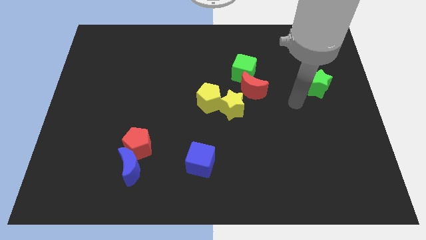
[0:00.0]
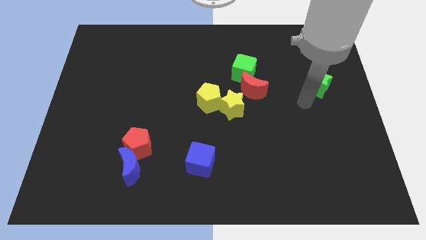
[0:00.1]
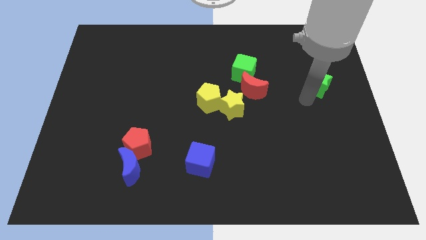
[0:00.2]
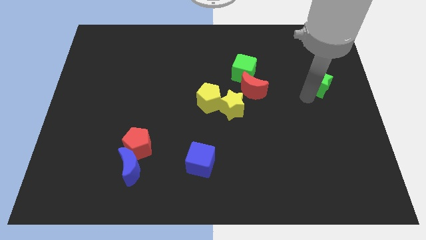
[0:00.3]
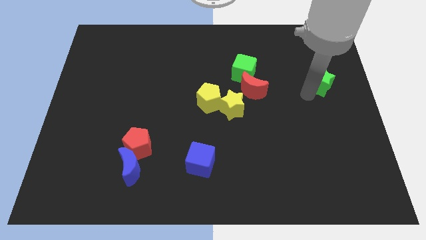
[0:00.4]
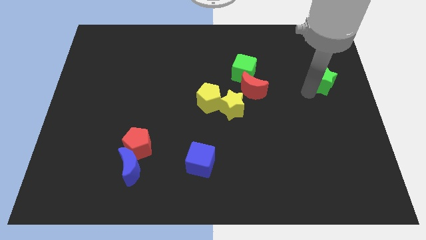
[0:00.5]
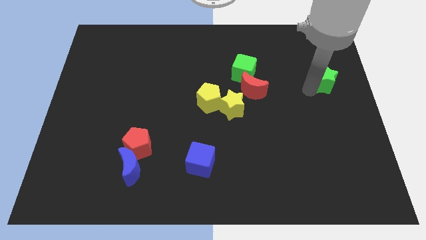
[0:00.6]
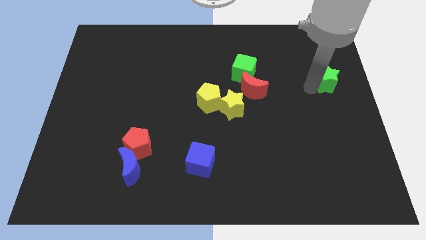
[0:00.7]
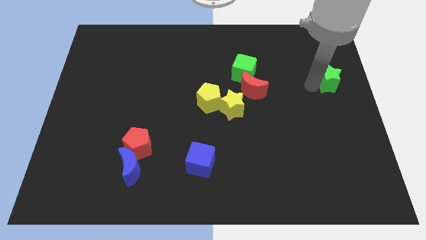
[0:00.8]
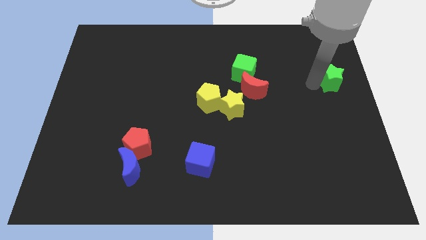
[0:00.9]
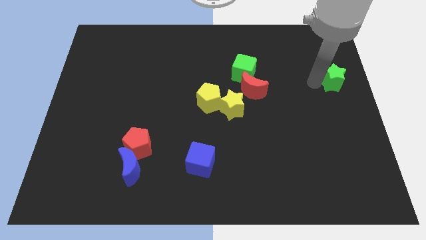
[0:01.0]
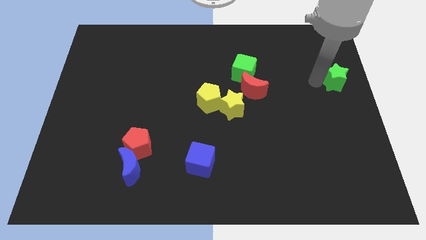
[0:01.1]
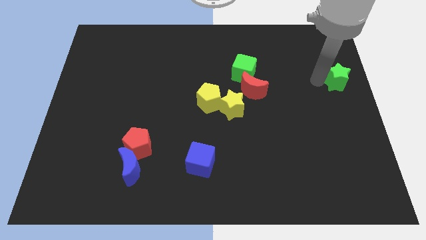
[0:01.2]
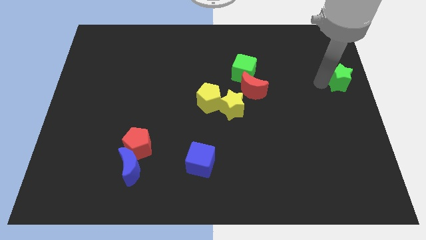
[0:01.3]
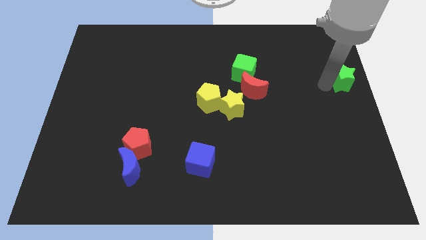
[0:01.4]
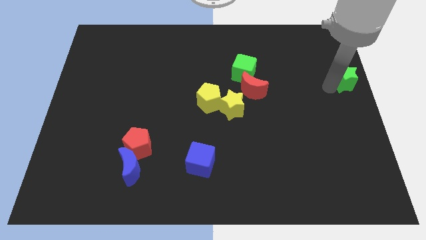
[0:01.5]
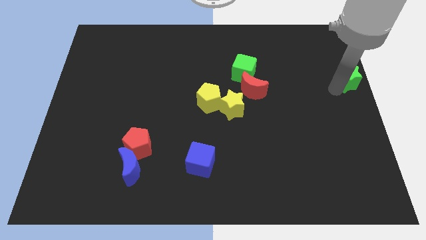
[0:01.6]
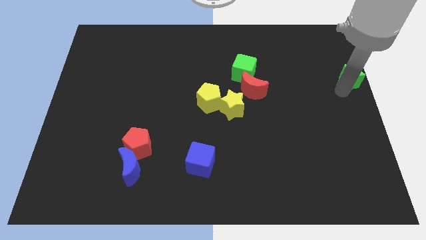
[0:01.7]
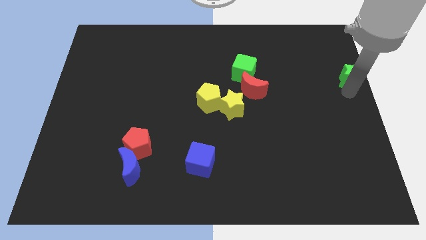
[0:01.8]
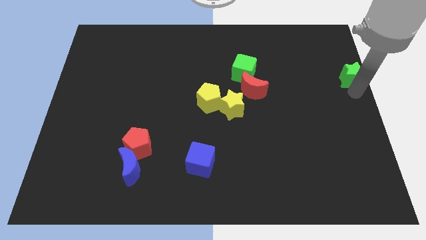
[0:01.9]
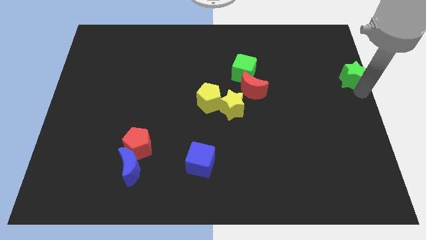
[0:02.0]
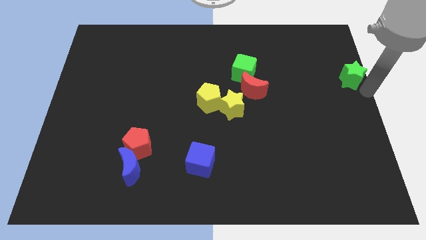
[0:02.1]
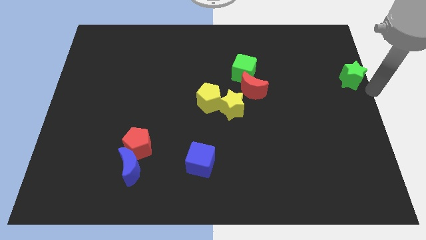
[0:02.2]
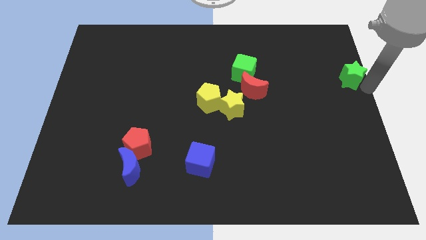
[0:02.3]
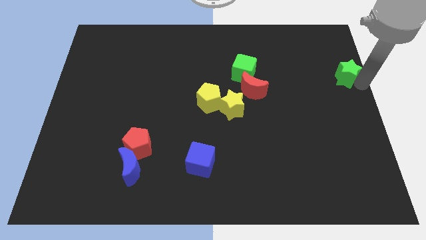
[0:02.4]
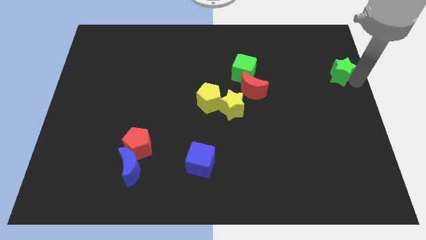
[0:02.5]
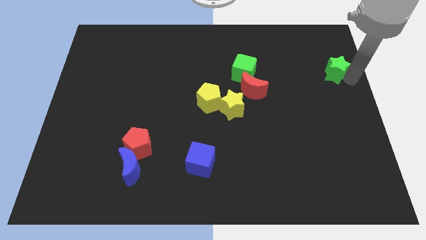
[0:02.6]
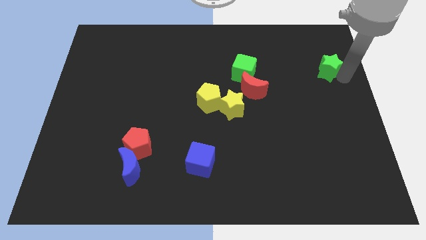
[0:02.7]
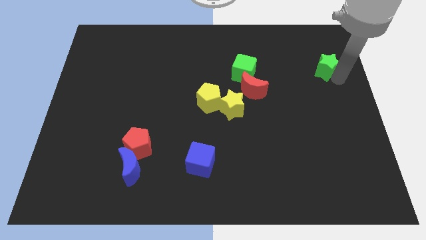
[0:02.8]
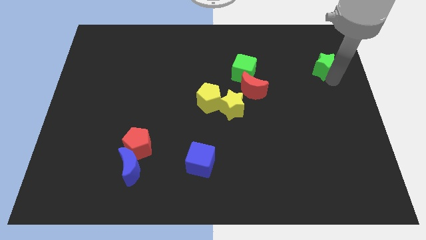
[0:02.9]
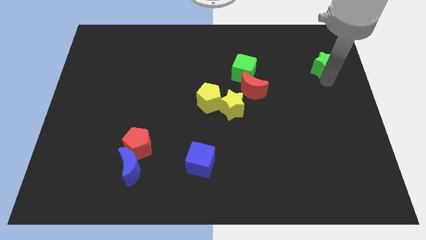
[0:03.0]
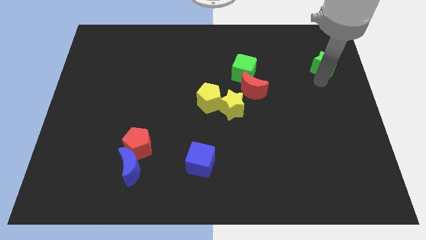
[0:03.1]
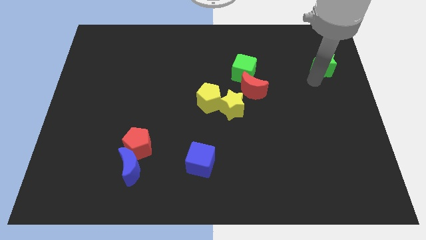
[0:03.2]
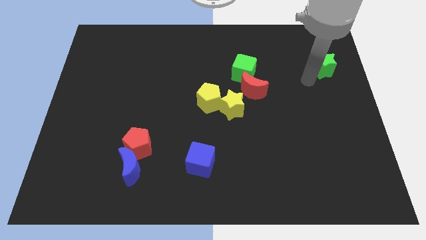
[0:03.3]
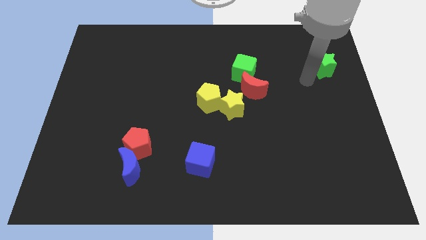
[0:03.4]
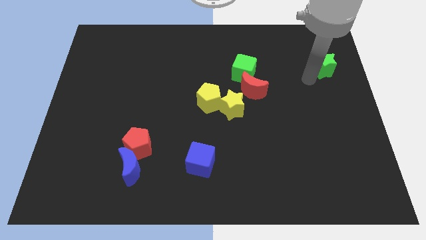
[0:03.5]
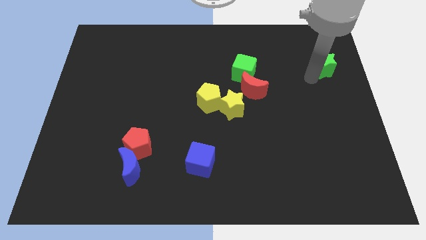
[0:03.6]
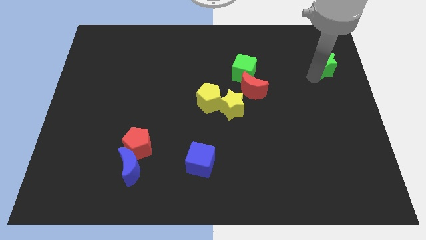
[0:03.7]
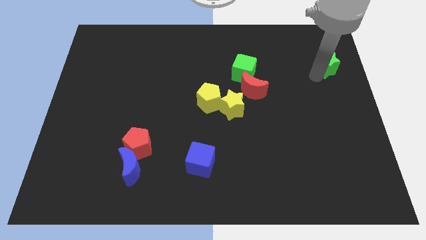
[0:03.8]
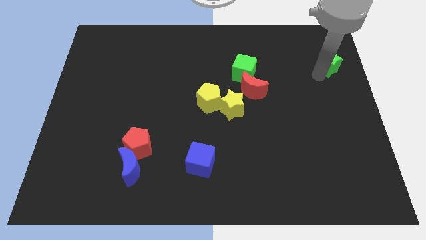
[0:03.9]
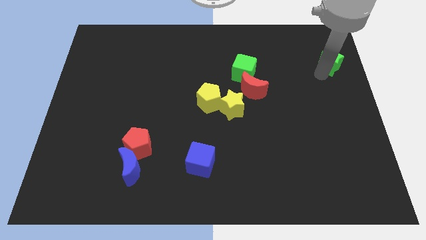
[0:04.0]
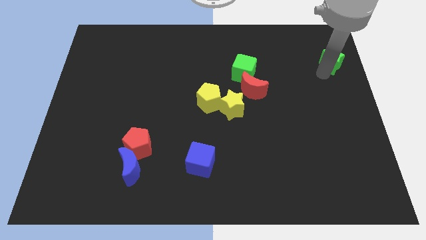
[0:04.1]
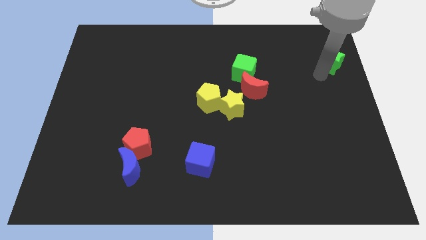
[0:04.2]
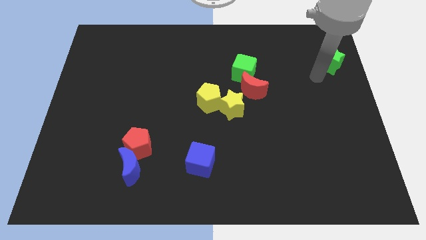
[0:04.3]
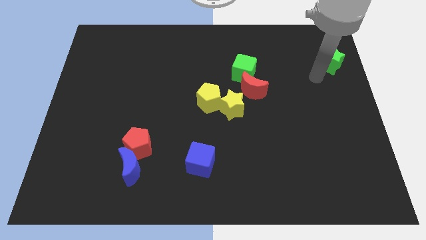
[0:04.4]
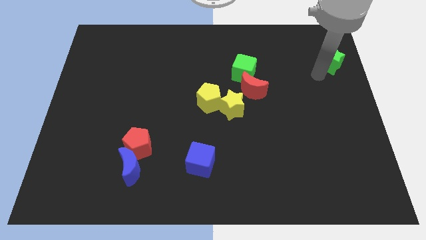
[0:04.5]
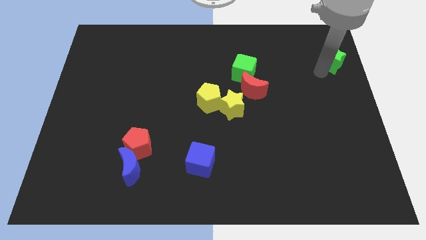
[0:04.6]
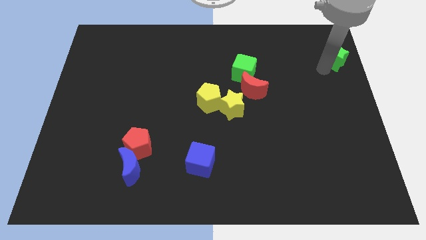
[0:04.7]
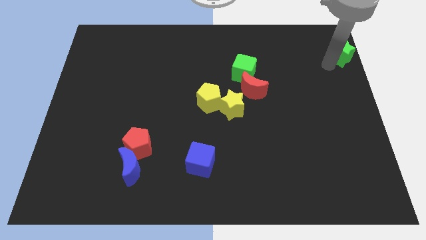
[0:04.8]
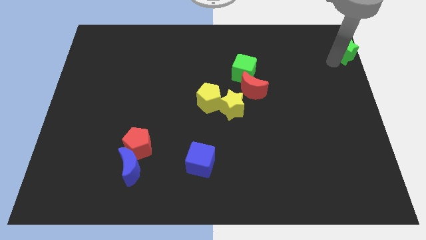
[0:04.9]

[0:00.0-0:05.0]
move the green star to the upper right corner

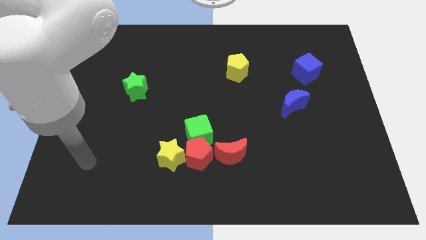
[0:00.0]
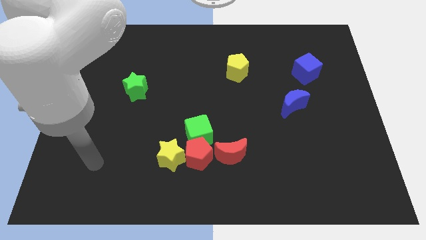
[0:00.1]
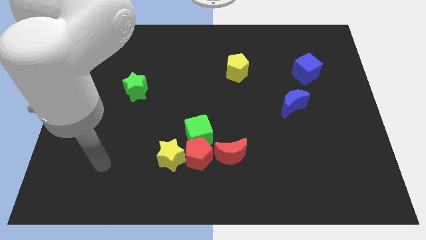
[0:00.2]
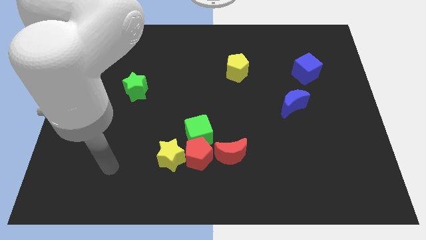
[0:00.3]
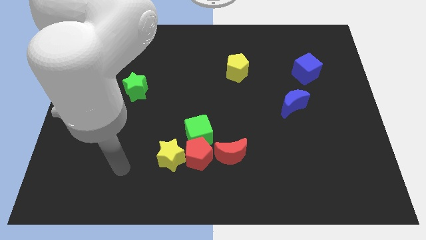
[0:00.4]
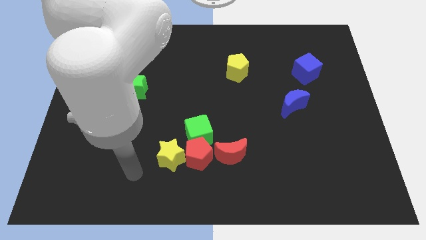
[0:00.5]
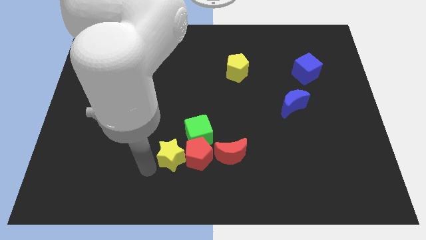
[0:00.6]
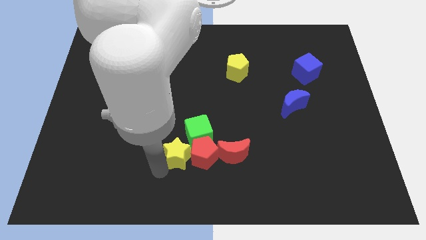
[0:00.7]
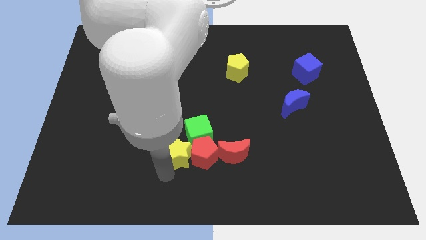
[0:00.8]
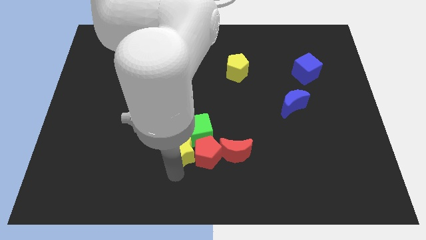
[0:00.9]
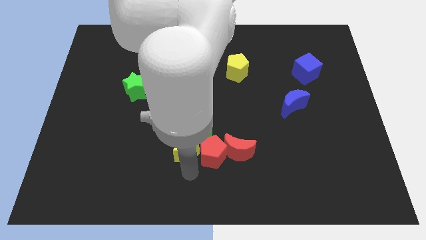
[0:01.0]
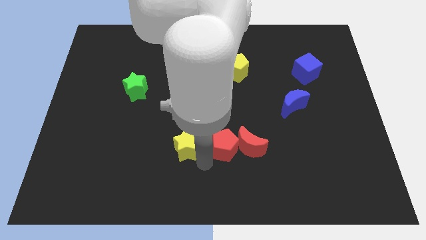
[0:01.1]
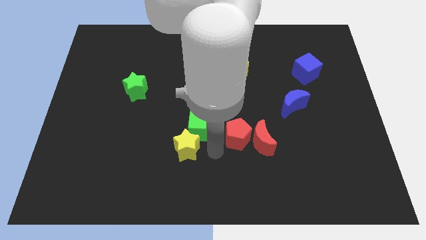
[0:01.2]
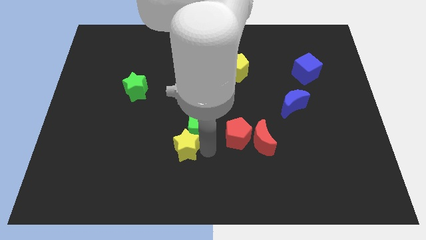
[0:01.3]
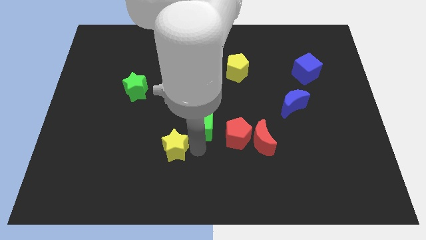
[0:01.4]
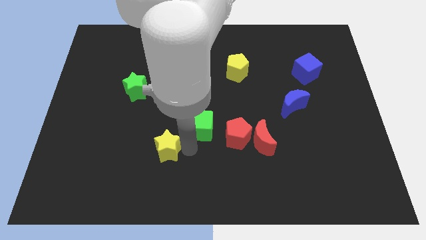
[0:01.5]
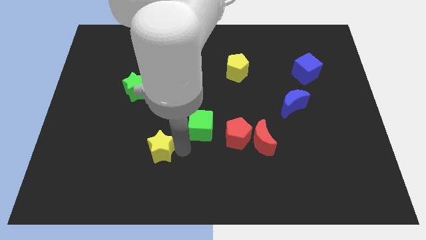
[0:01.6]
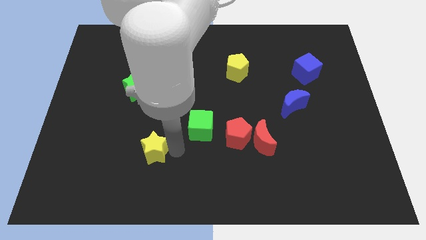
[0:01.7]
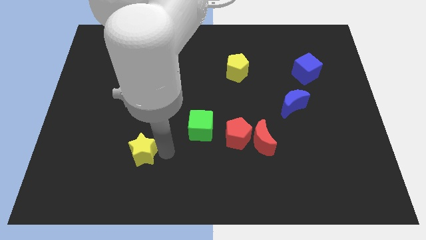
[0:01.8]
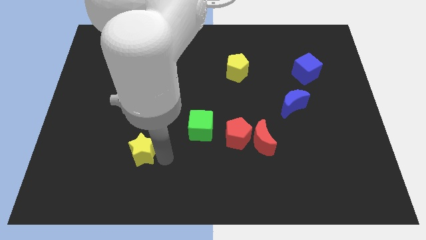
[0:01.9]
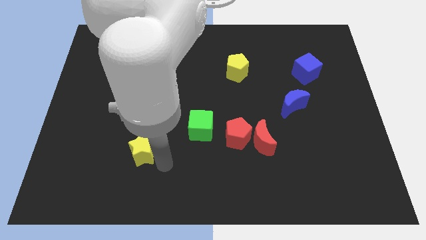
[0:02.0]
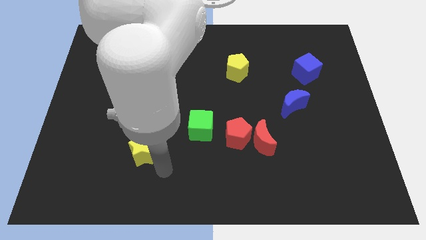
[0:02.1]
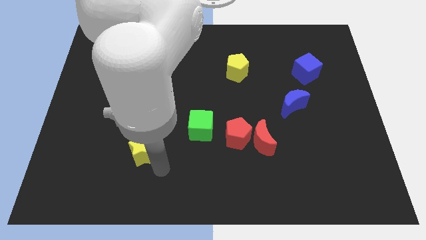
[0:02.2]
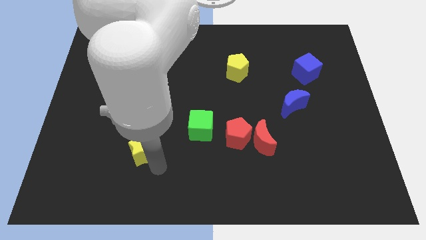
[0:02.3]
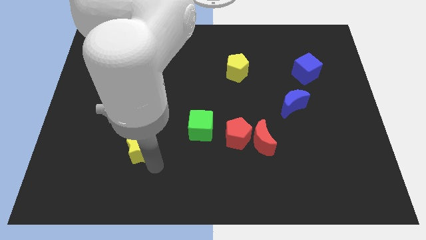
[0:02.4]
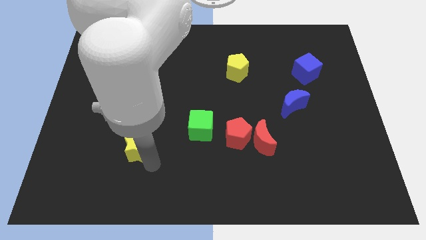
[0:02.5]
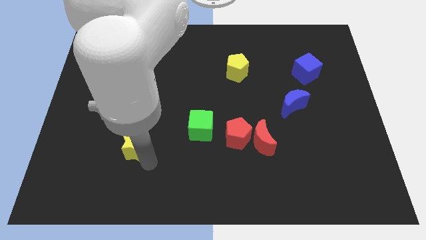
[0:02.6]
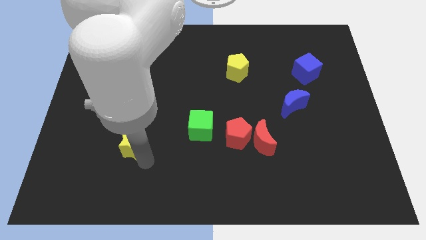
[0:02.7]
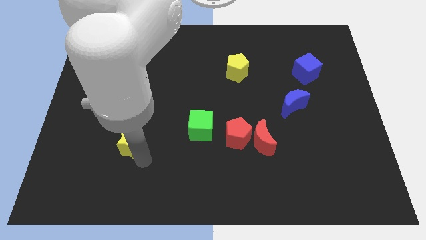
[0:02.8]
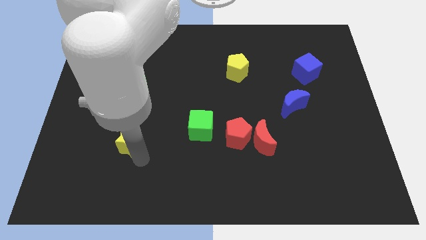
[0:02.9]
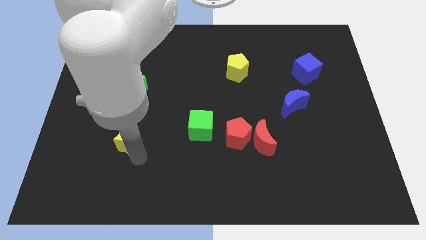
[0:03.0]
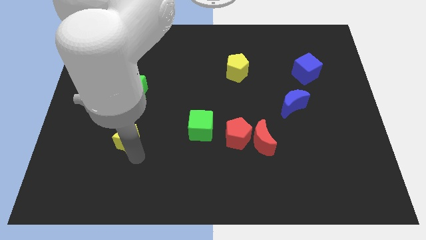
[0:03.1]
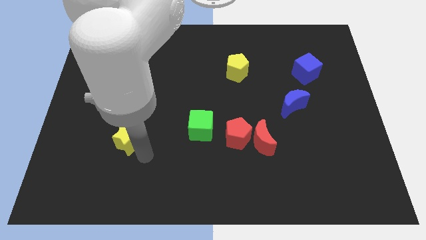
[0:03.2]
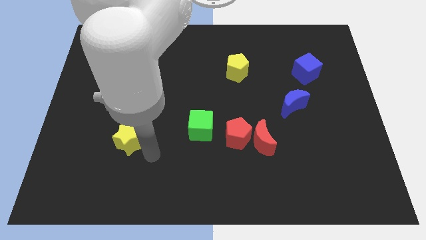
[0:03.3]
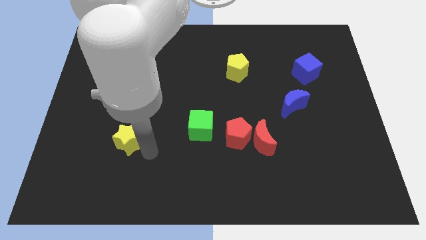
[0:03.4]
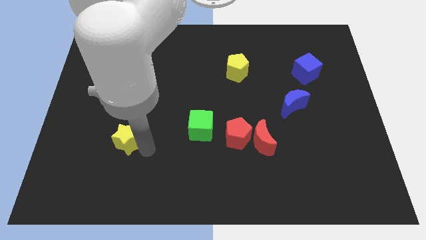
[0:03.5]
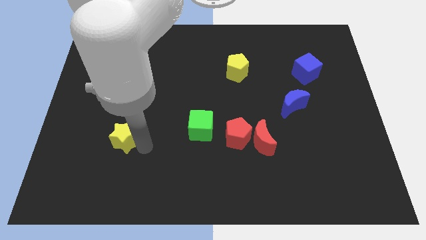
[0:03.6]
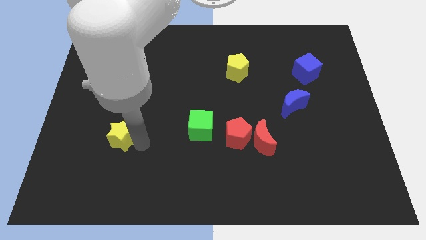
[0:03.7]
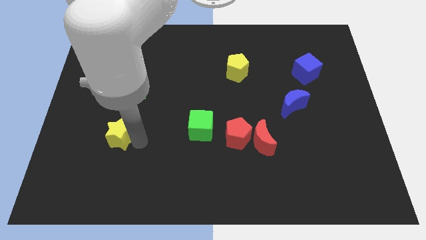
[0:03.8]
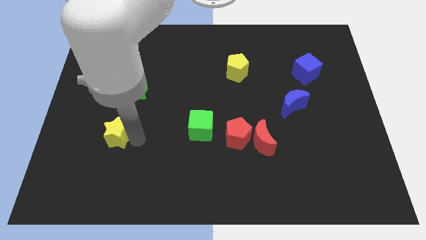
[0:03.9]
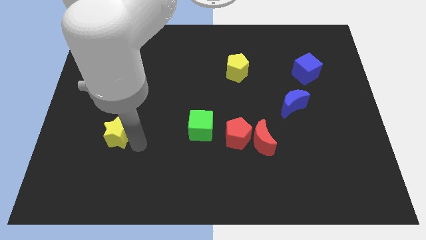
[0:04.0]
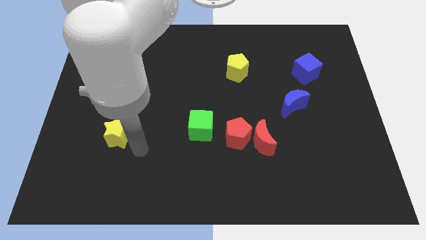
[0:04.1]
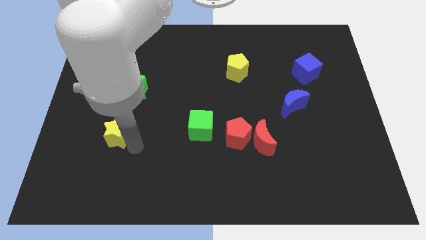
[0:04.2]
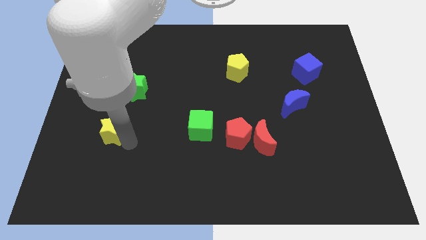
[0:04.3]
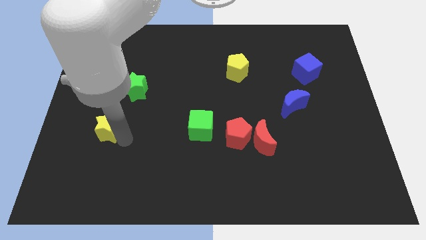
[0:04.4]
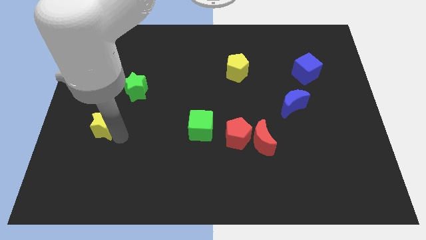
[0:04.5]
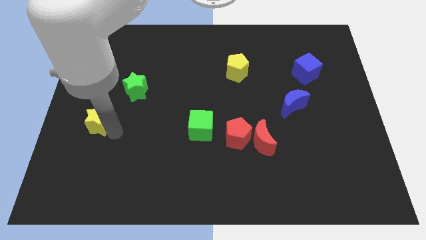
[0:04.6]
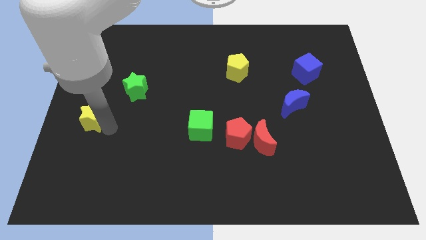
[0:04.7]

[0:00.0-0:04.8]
move the yellow star to the center left
